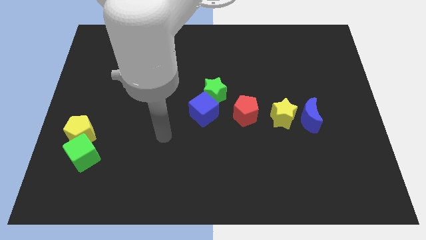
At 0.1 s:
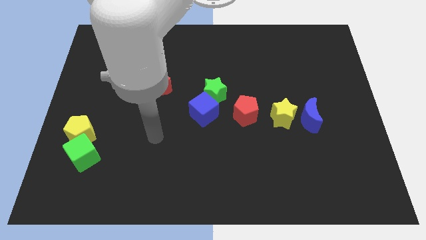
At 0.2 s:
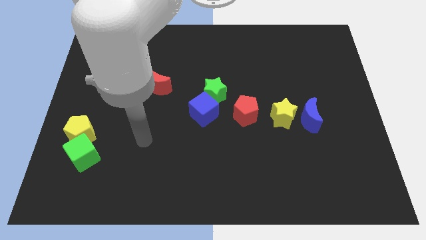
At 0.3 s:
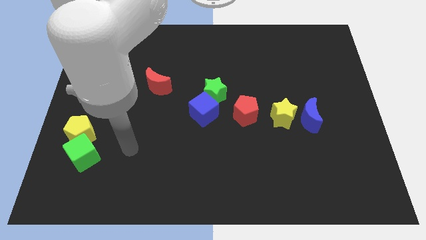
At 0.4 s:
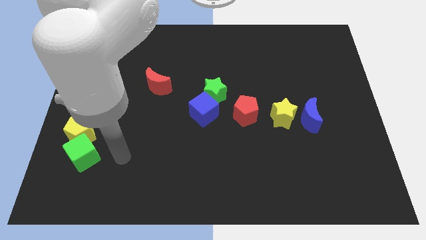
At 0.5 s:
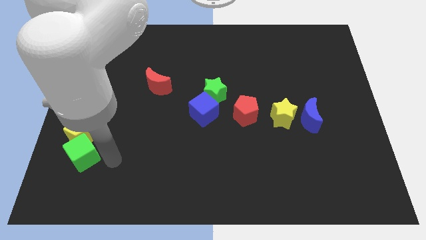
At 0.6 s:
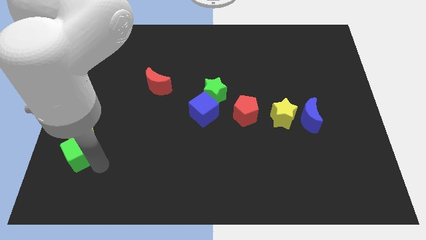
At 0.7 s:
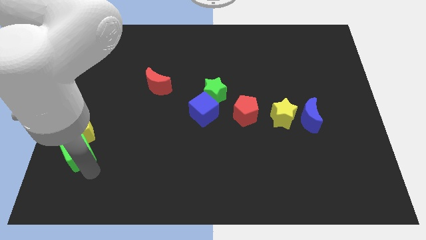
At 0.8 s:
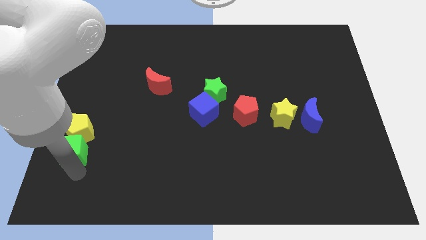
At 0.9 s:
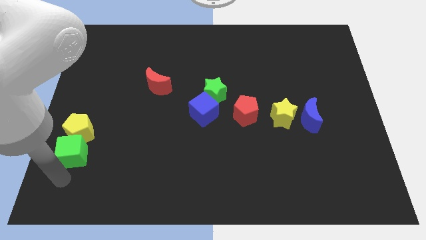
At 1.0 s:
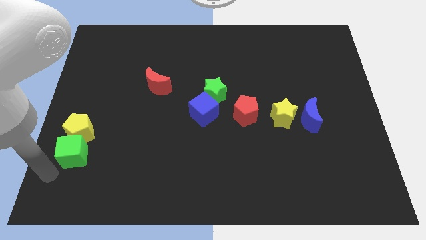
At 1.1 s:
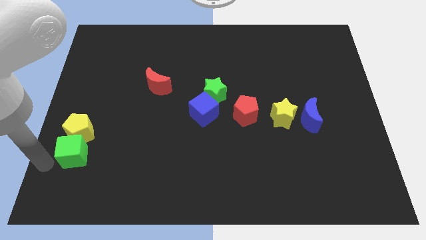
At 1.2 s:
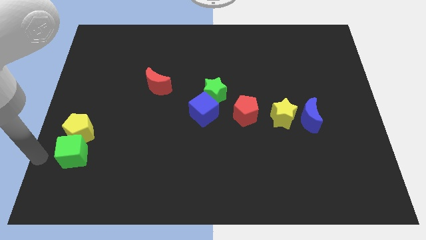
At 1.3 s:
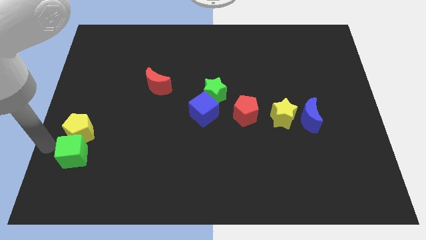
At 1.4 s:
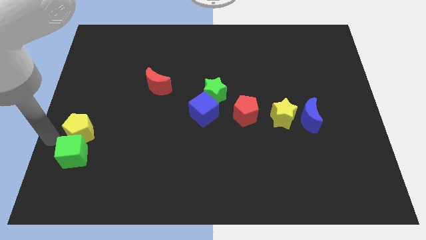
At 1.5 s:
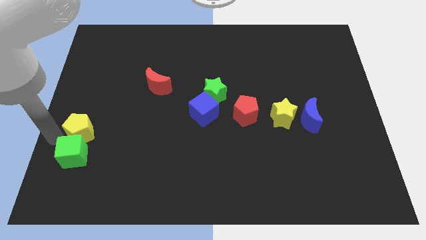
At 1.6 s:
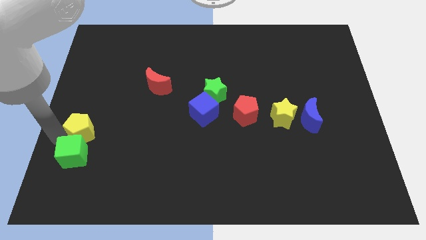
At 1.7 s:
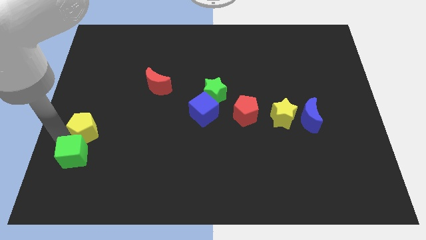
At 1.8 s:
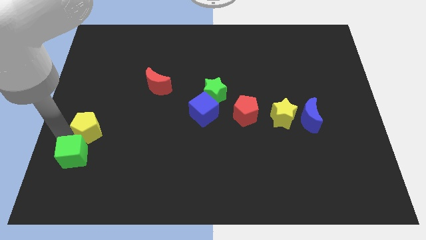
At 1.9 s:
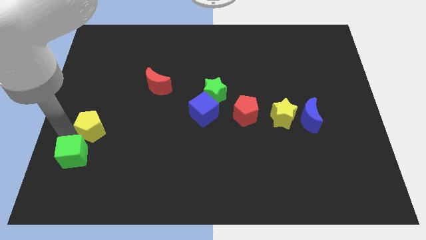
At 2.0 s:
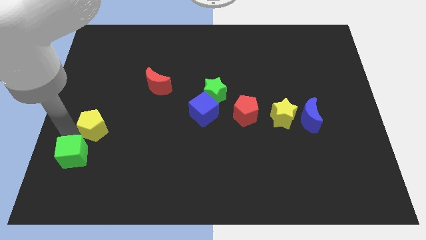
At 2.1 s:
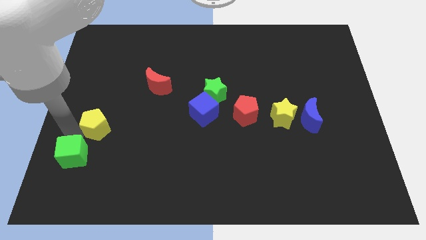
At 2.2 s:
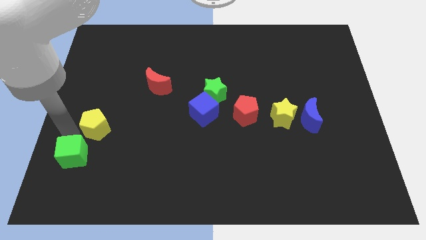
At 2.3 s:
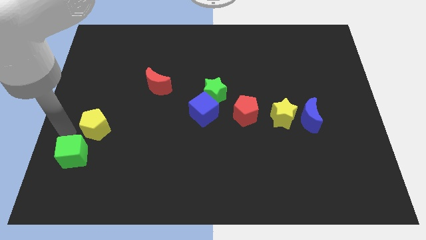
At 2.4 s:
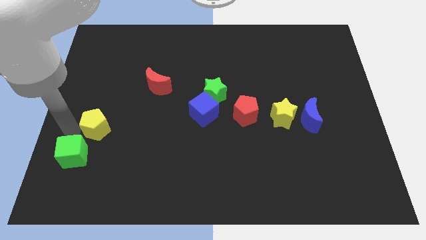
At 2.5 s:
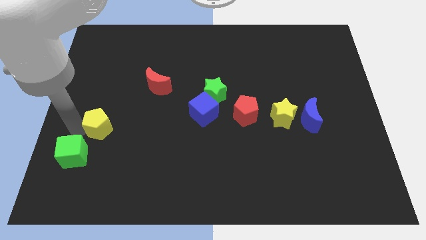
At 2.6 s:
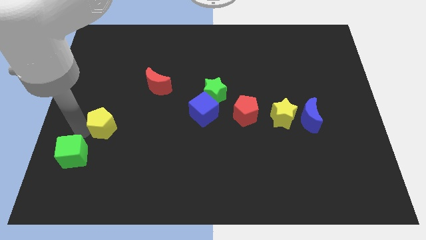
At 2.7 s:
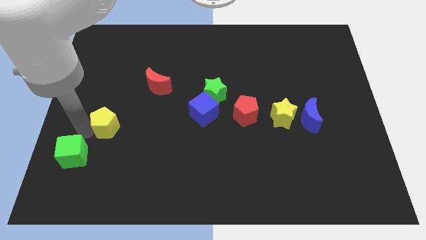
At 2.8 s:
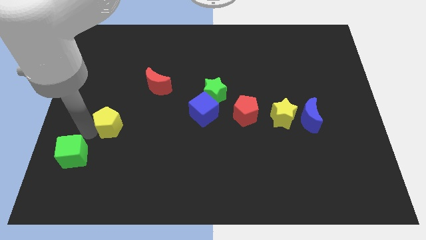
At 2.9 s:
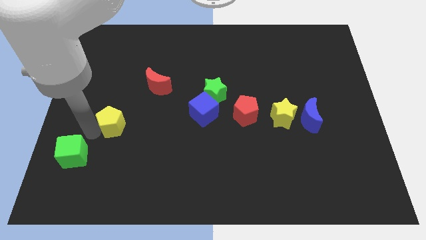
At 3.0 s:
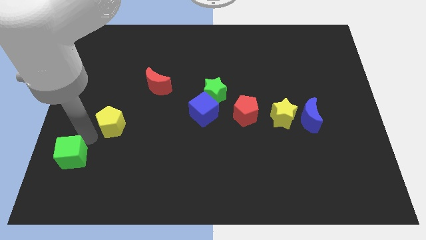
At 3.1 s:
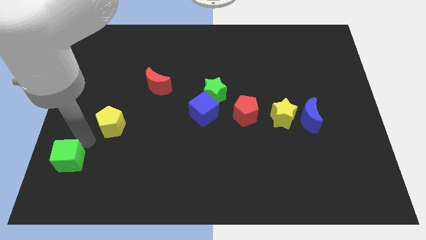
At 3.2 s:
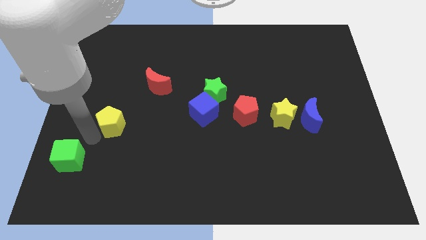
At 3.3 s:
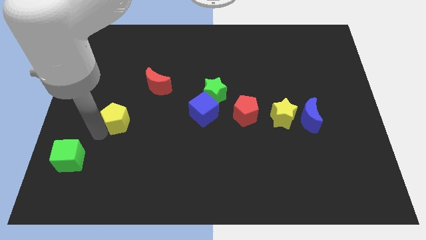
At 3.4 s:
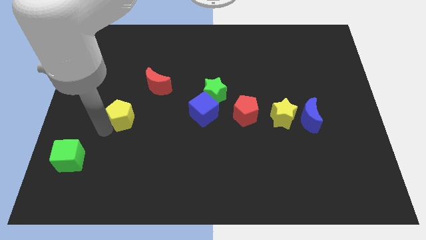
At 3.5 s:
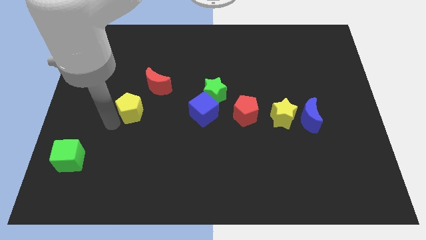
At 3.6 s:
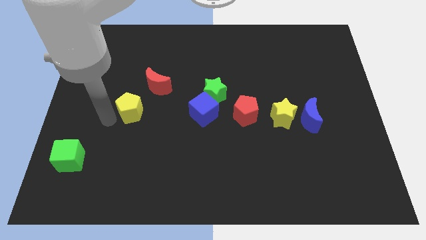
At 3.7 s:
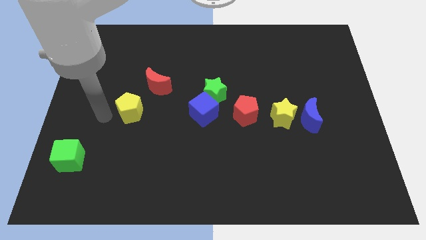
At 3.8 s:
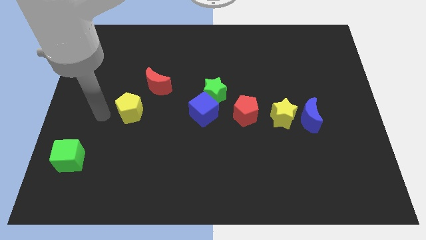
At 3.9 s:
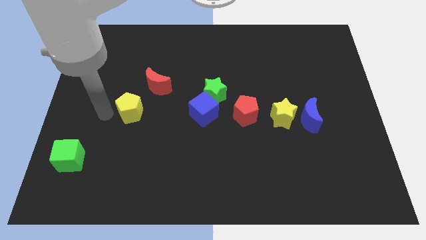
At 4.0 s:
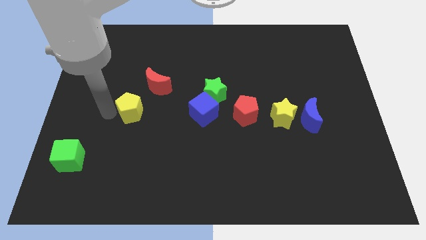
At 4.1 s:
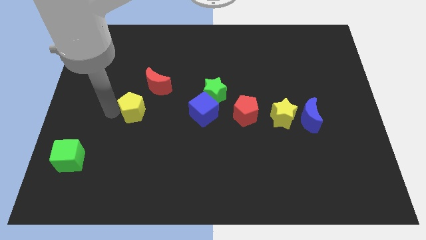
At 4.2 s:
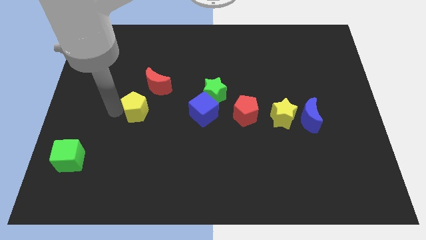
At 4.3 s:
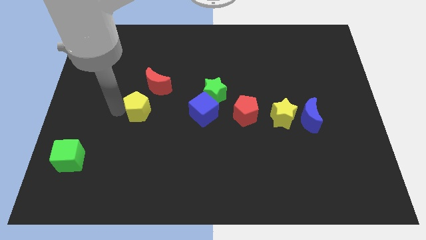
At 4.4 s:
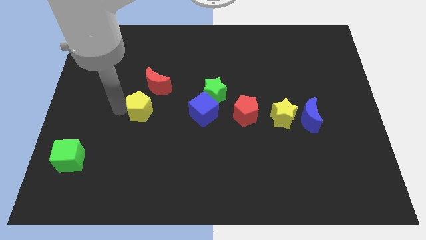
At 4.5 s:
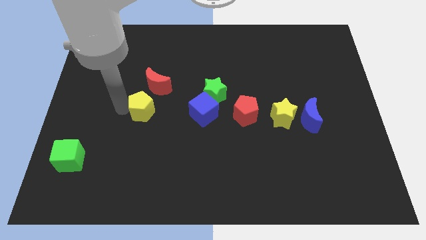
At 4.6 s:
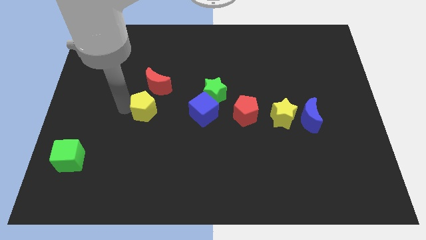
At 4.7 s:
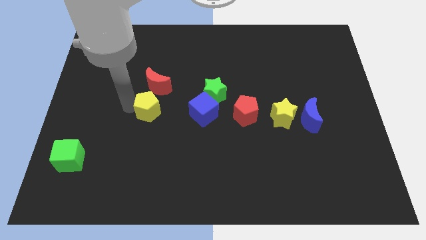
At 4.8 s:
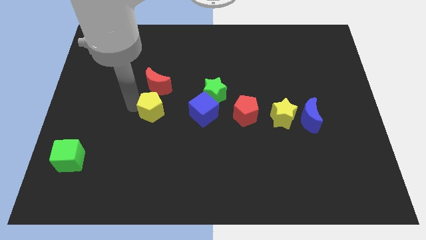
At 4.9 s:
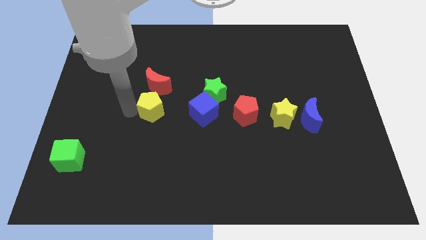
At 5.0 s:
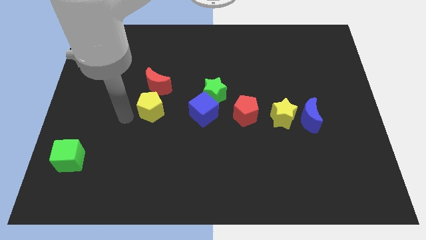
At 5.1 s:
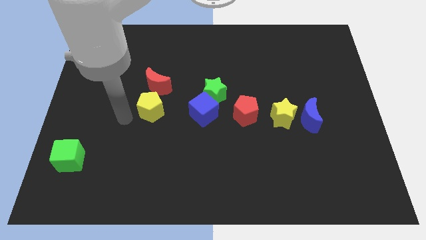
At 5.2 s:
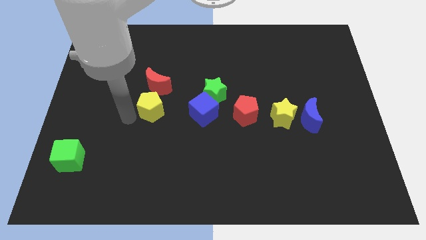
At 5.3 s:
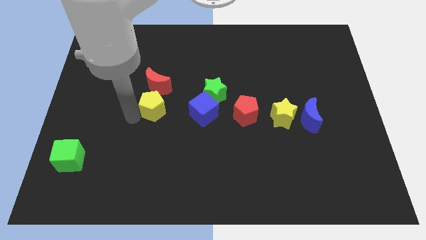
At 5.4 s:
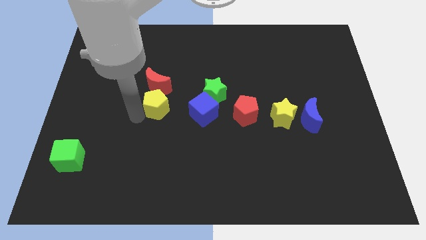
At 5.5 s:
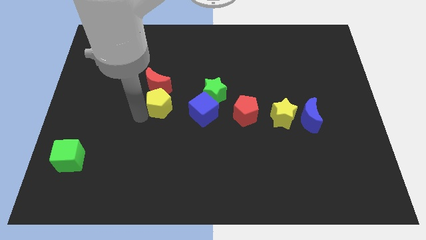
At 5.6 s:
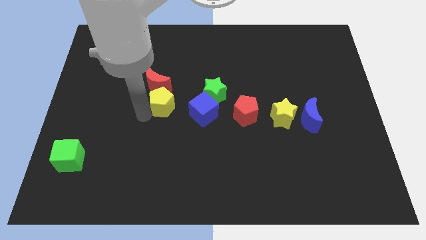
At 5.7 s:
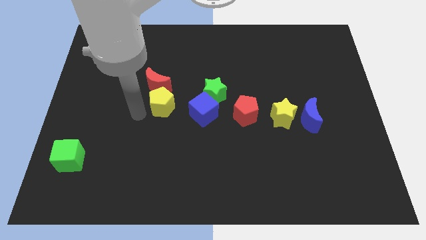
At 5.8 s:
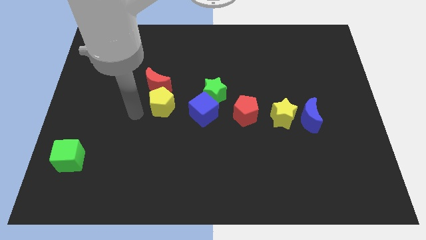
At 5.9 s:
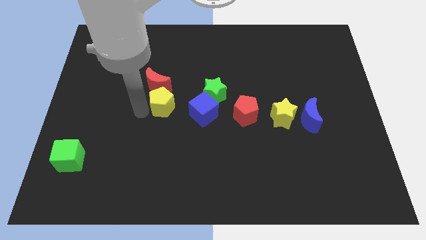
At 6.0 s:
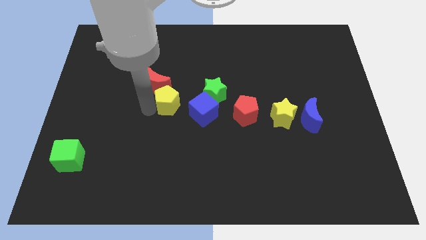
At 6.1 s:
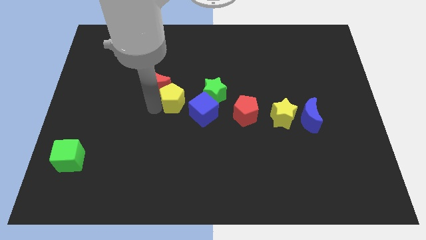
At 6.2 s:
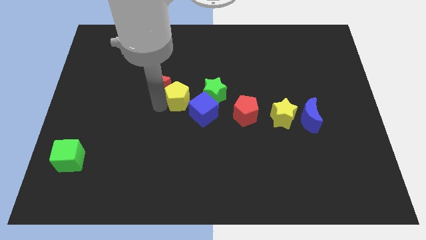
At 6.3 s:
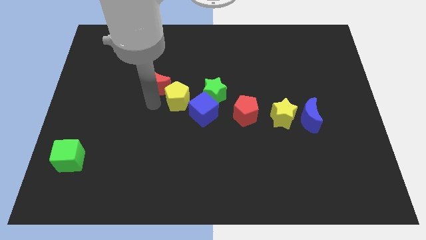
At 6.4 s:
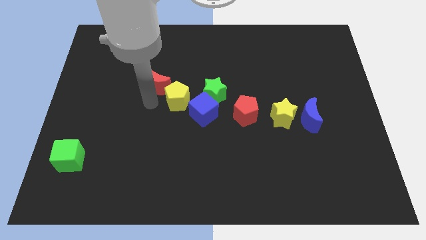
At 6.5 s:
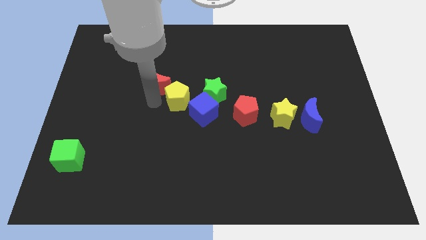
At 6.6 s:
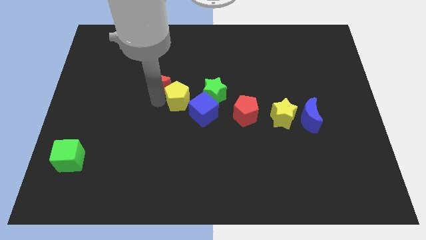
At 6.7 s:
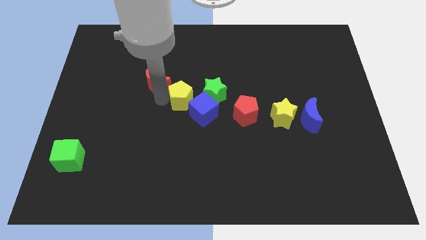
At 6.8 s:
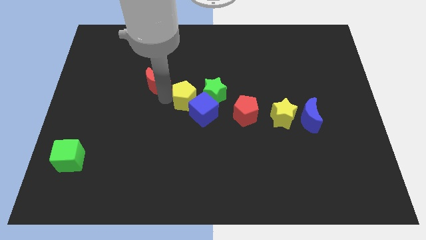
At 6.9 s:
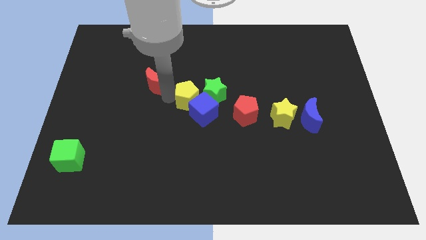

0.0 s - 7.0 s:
slide the yellow pentagon to the green star
